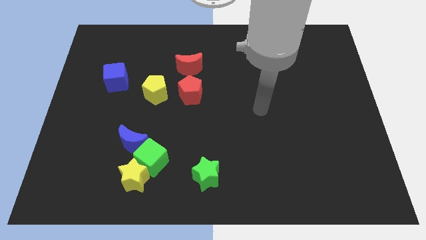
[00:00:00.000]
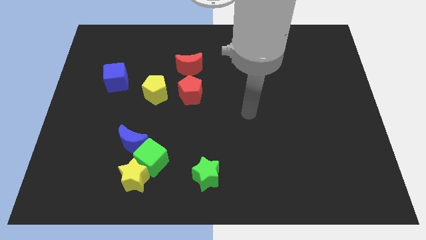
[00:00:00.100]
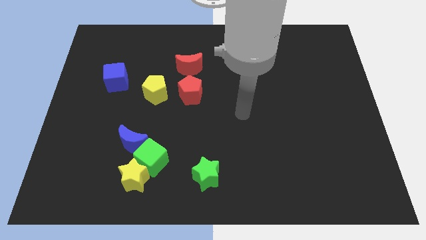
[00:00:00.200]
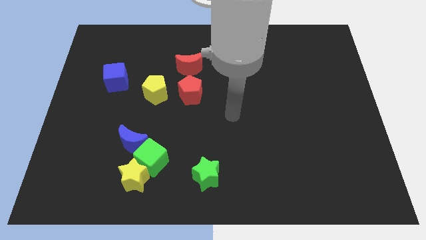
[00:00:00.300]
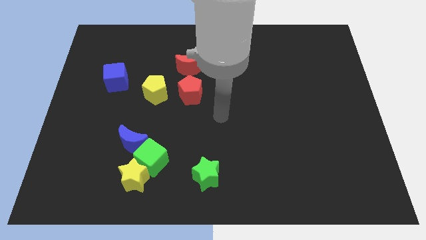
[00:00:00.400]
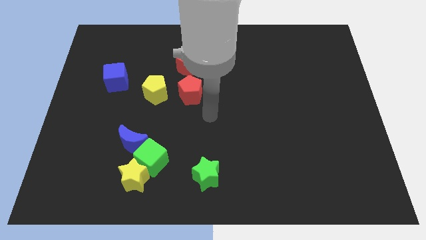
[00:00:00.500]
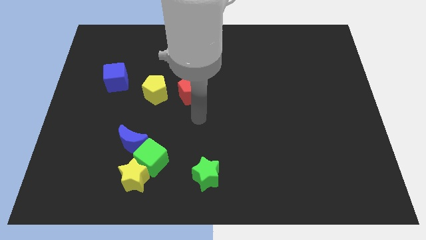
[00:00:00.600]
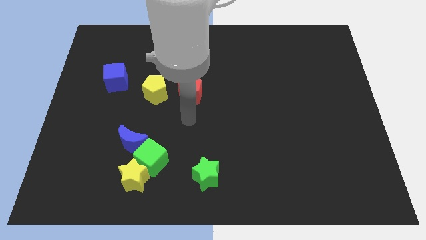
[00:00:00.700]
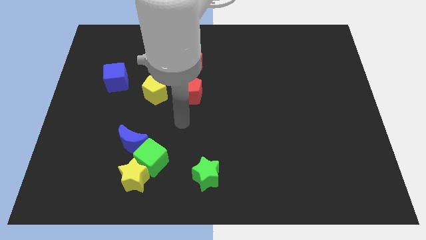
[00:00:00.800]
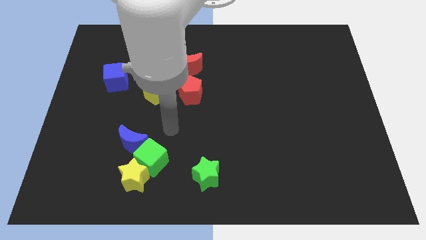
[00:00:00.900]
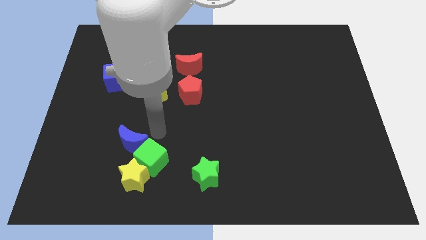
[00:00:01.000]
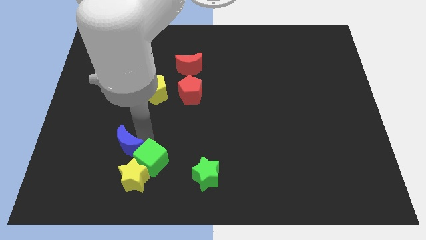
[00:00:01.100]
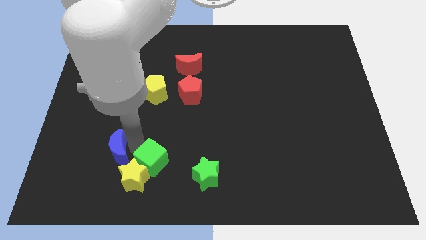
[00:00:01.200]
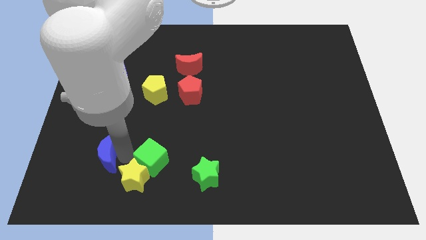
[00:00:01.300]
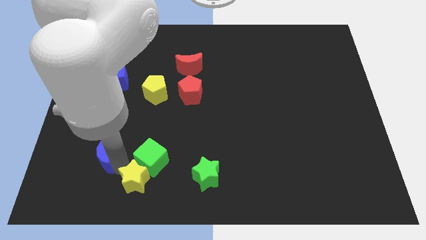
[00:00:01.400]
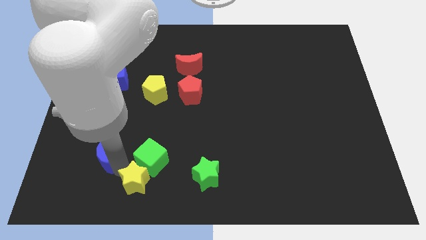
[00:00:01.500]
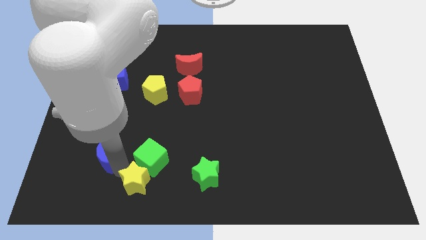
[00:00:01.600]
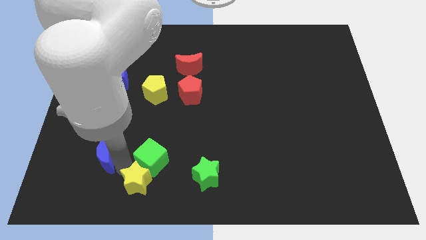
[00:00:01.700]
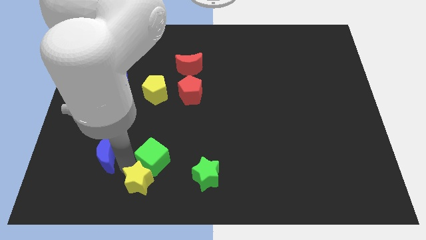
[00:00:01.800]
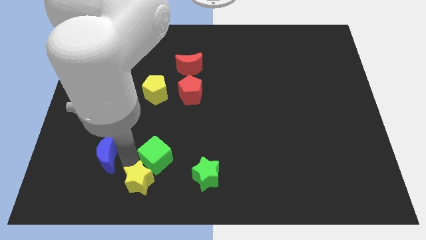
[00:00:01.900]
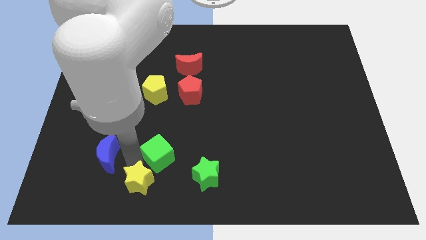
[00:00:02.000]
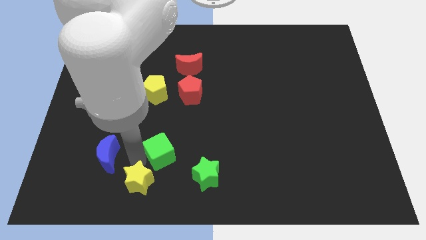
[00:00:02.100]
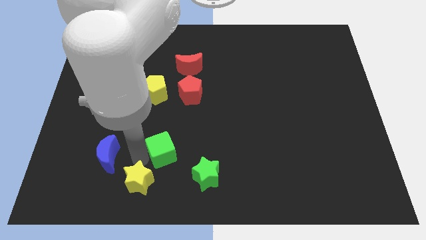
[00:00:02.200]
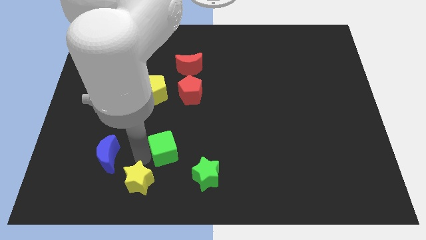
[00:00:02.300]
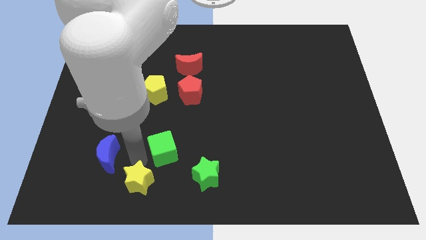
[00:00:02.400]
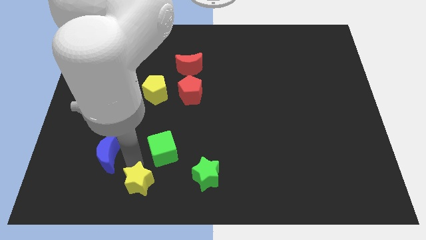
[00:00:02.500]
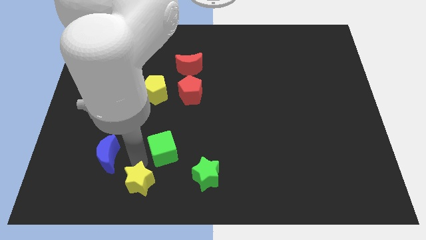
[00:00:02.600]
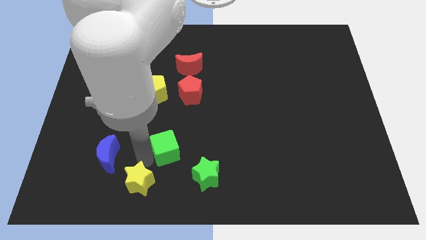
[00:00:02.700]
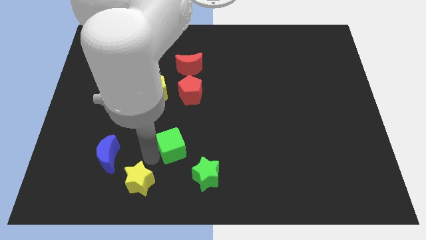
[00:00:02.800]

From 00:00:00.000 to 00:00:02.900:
separate the green cube from the yellow star and blue moon

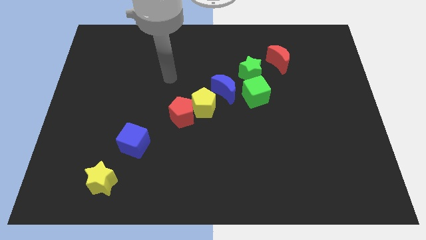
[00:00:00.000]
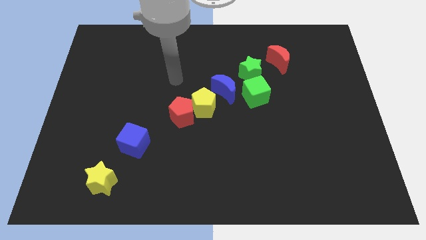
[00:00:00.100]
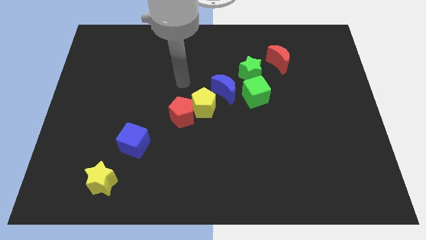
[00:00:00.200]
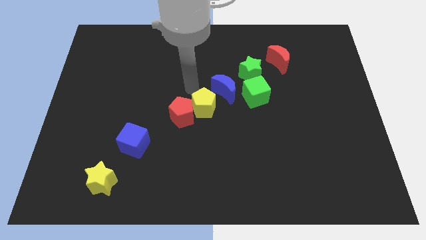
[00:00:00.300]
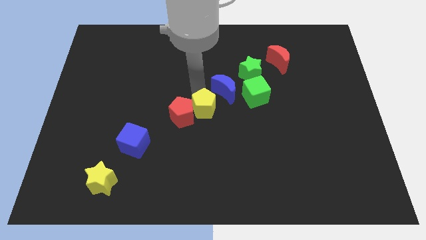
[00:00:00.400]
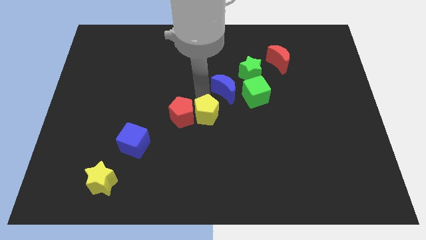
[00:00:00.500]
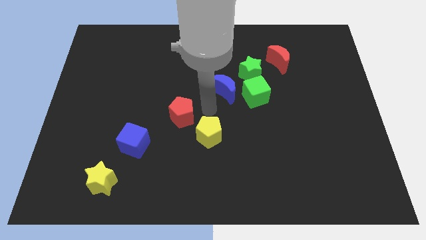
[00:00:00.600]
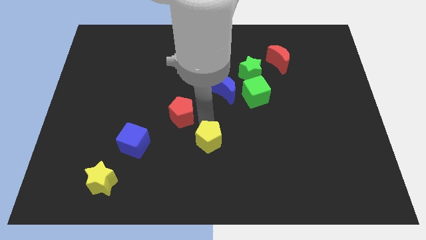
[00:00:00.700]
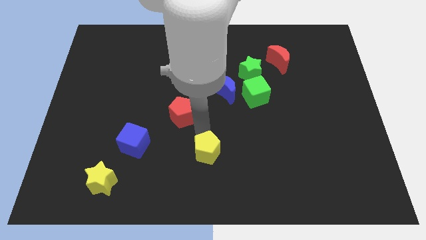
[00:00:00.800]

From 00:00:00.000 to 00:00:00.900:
move the red pentagon away from the yellow pentagon

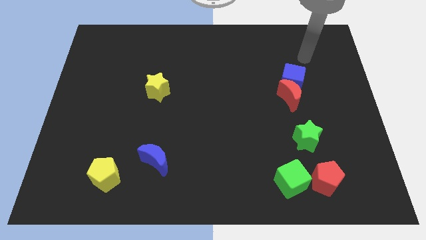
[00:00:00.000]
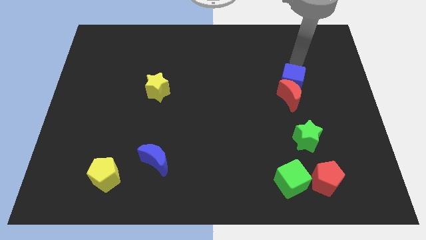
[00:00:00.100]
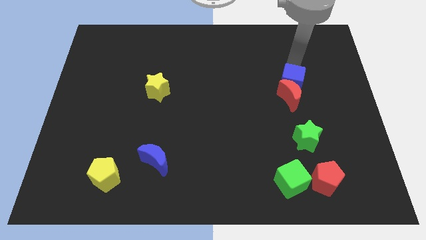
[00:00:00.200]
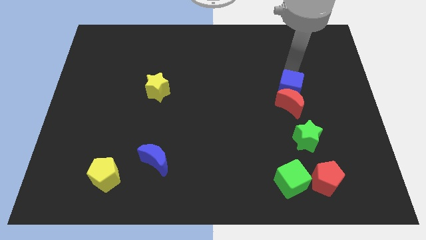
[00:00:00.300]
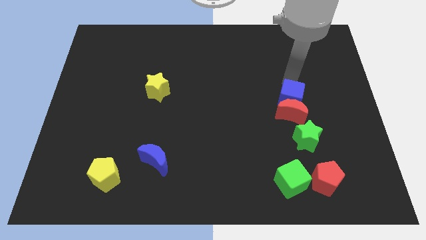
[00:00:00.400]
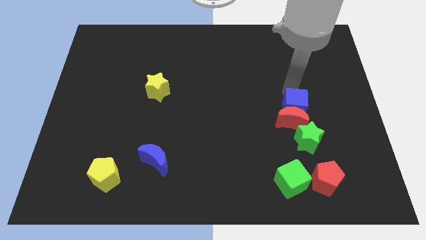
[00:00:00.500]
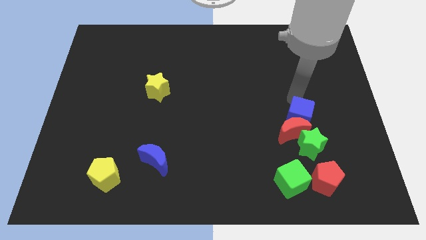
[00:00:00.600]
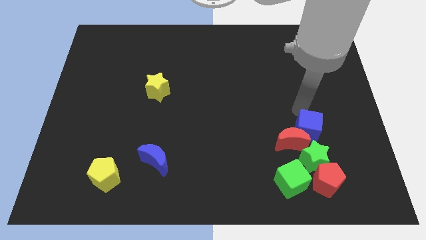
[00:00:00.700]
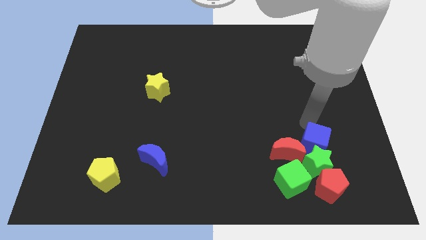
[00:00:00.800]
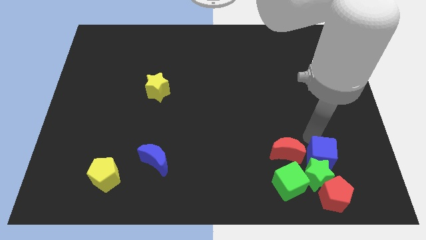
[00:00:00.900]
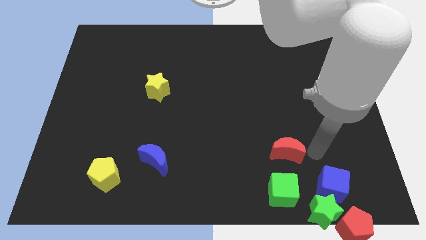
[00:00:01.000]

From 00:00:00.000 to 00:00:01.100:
move the red moon away from the blue cube

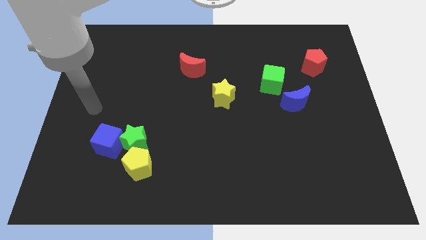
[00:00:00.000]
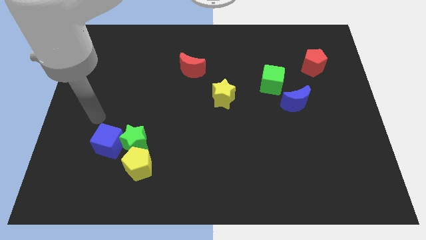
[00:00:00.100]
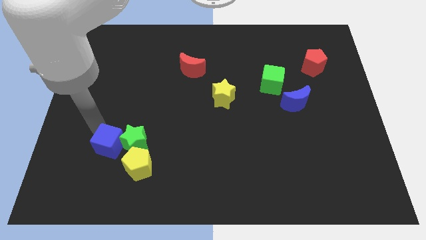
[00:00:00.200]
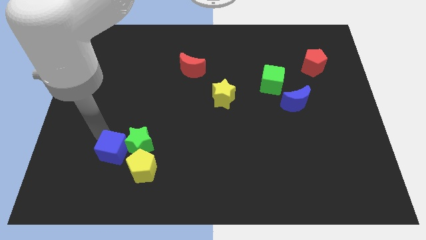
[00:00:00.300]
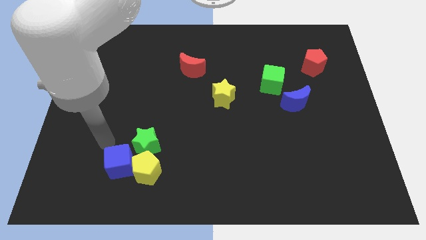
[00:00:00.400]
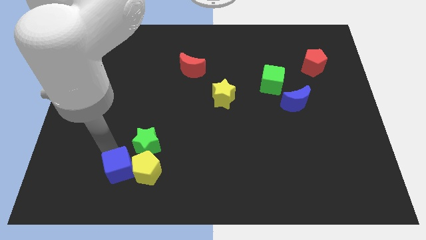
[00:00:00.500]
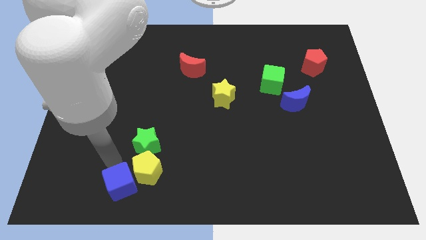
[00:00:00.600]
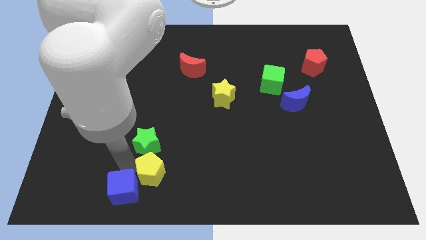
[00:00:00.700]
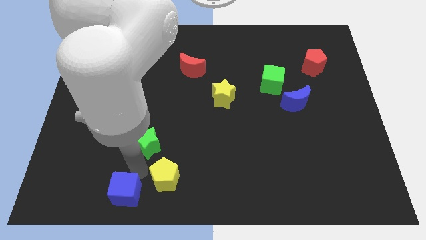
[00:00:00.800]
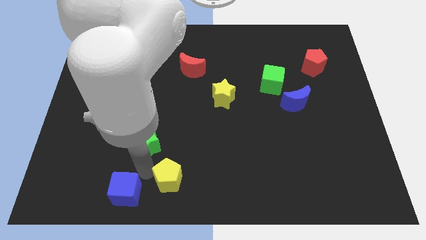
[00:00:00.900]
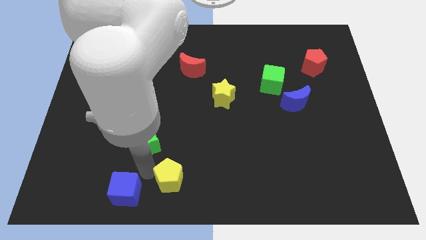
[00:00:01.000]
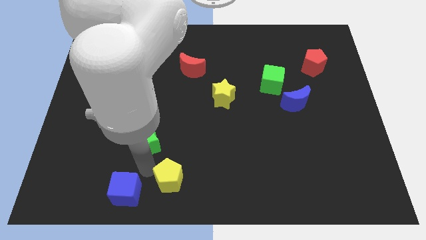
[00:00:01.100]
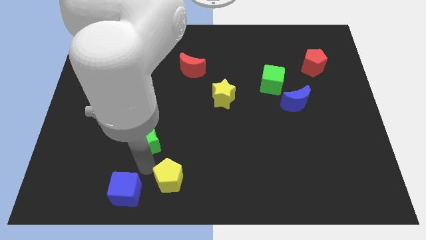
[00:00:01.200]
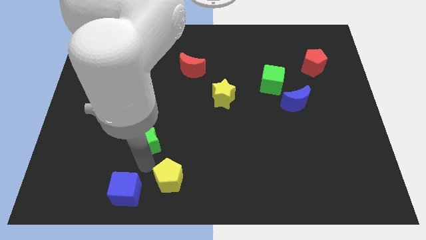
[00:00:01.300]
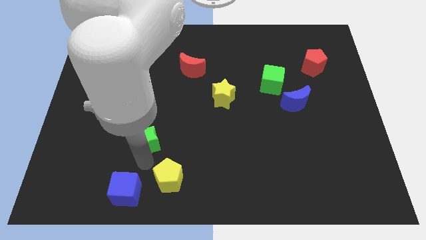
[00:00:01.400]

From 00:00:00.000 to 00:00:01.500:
separate the green star from the blue cube and yellow pentagon

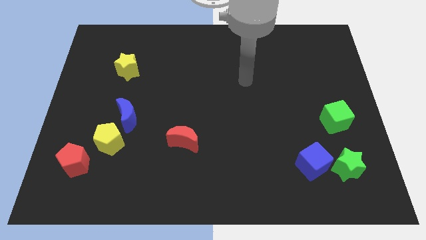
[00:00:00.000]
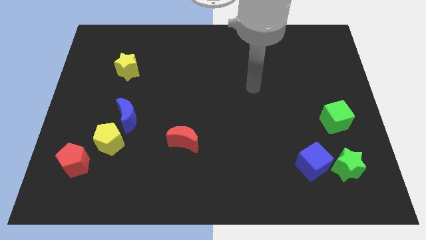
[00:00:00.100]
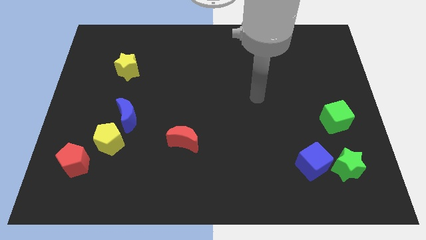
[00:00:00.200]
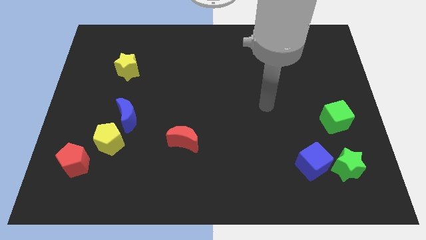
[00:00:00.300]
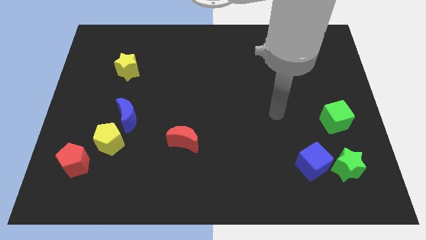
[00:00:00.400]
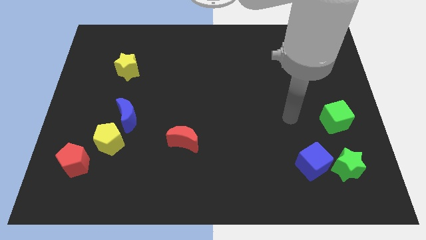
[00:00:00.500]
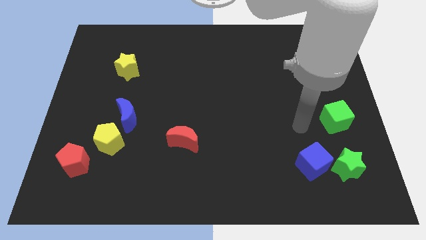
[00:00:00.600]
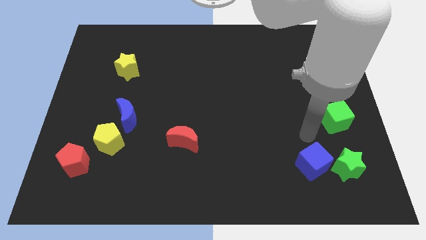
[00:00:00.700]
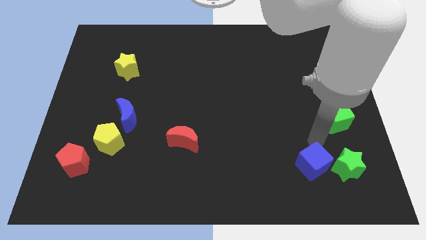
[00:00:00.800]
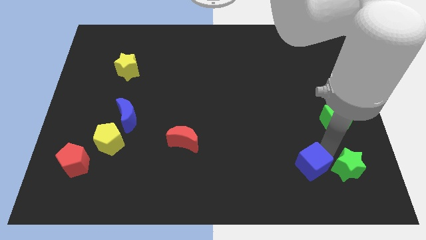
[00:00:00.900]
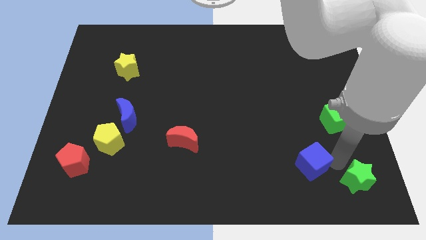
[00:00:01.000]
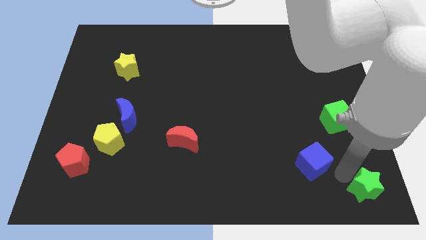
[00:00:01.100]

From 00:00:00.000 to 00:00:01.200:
move the blue cube away from the green star

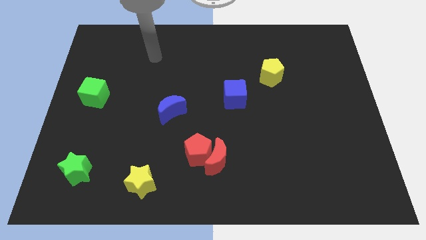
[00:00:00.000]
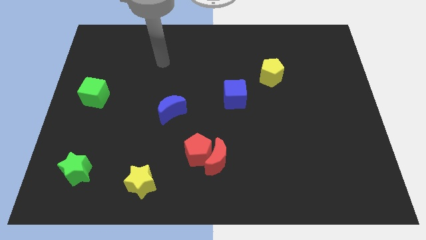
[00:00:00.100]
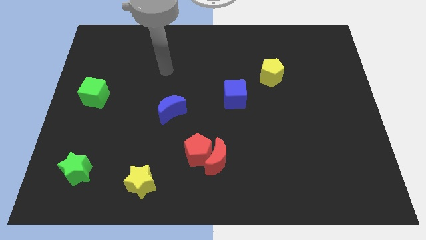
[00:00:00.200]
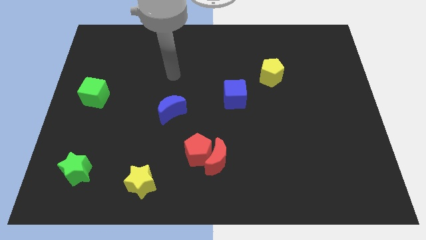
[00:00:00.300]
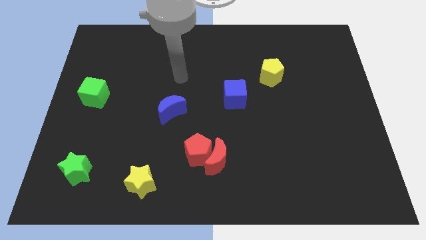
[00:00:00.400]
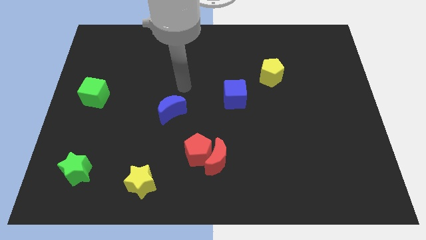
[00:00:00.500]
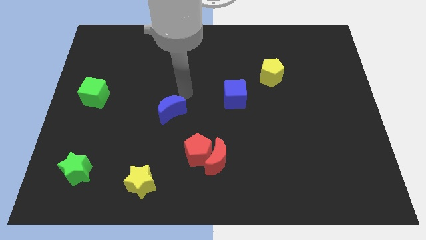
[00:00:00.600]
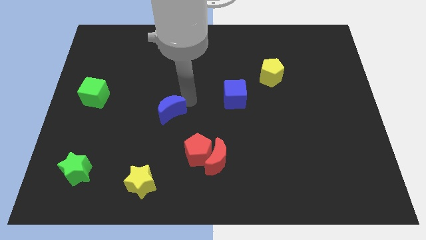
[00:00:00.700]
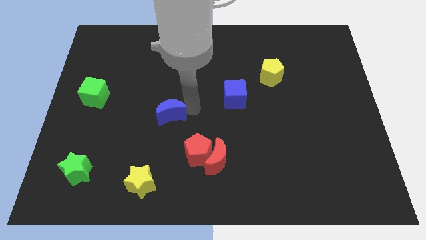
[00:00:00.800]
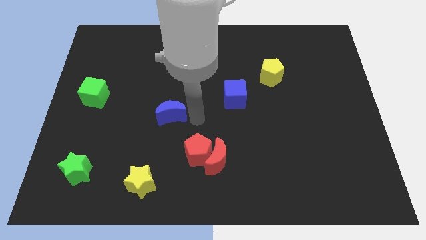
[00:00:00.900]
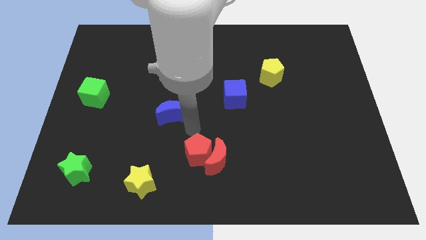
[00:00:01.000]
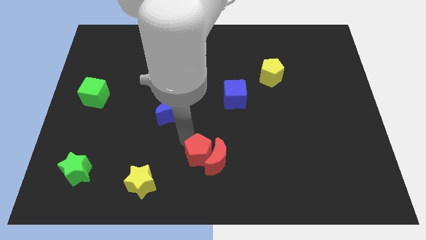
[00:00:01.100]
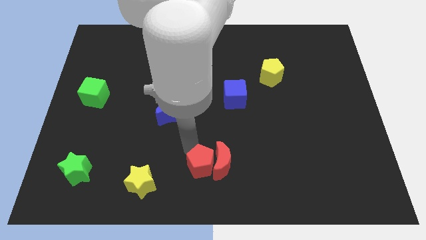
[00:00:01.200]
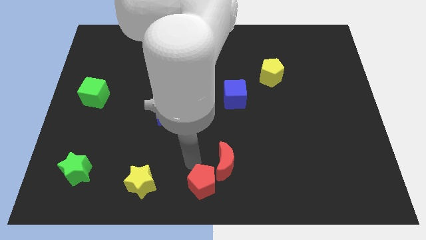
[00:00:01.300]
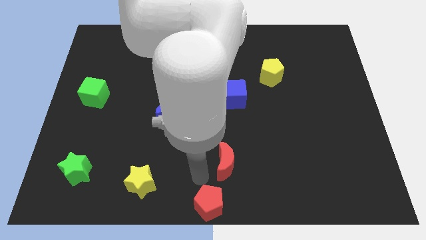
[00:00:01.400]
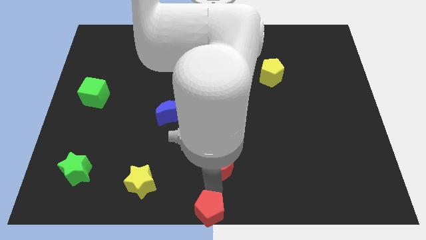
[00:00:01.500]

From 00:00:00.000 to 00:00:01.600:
pull the red moon apart from the red pentagon
